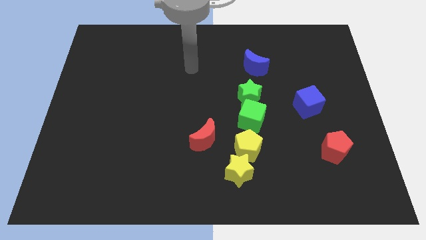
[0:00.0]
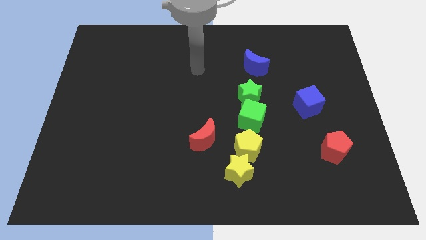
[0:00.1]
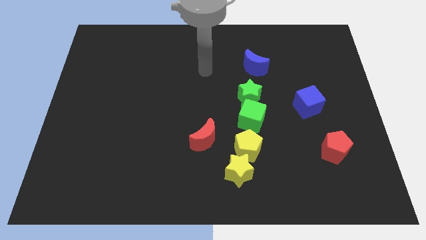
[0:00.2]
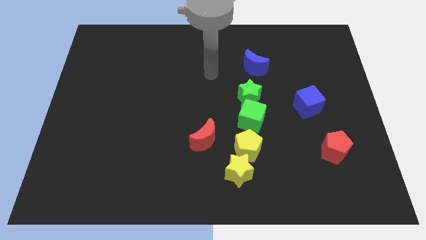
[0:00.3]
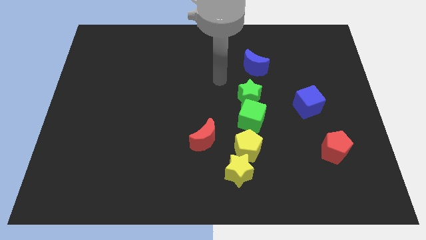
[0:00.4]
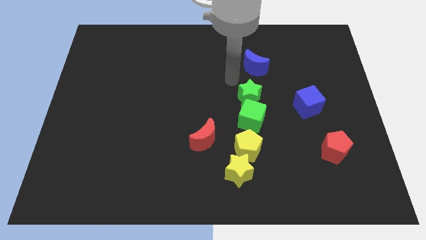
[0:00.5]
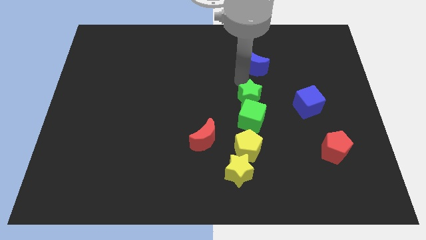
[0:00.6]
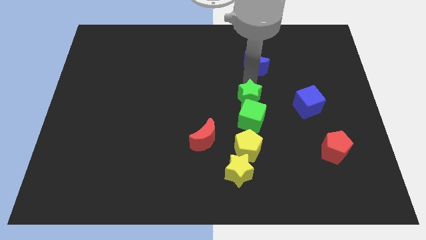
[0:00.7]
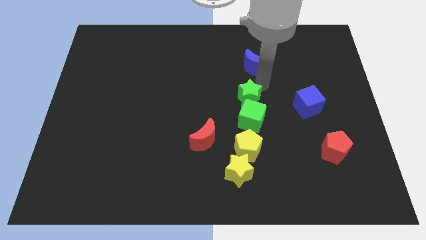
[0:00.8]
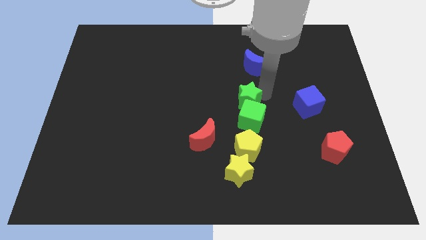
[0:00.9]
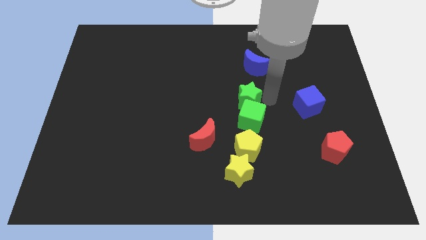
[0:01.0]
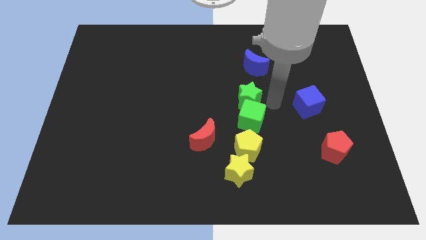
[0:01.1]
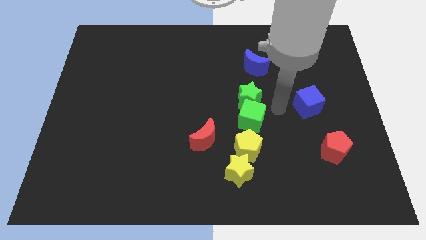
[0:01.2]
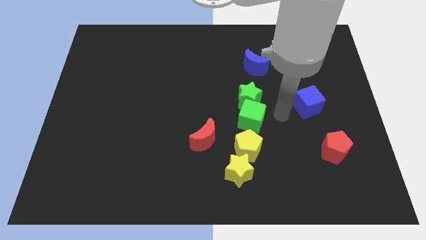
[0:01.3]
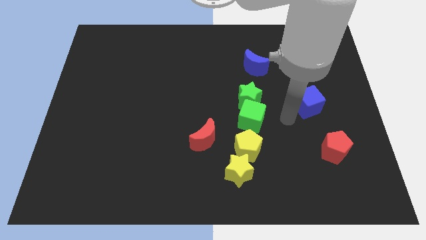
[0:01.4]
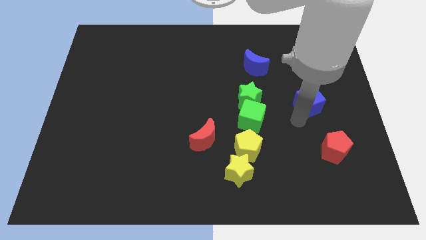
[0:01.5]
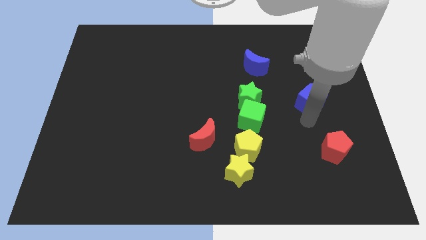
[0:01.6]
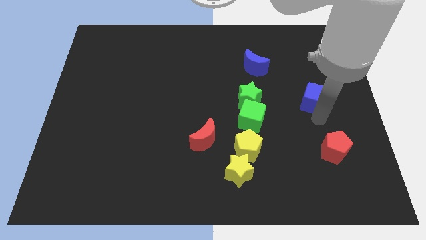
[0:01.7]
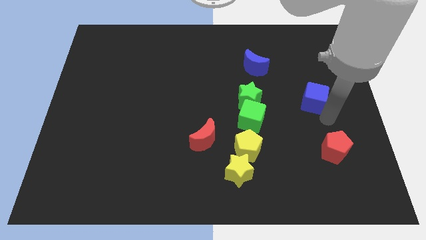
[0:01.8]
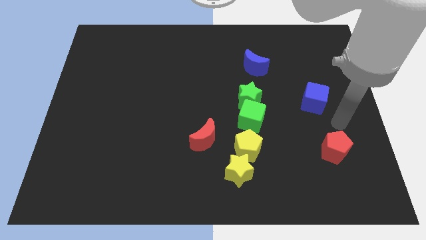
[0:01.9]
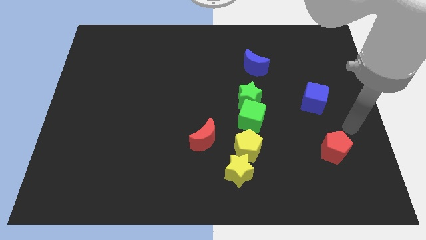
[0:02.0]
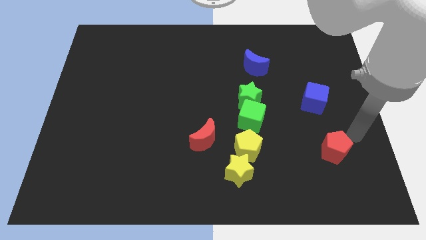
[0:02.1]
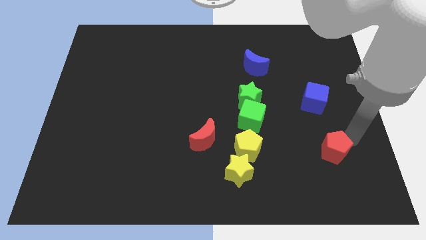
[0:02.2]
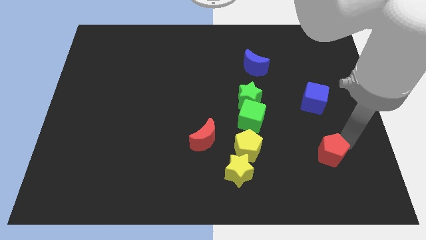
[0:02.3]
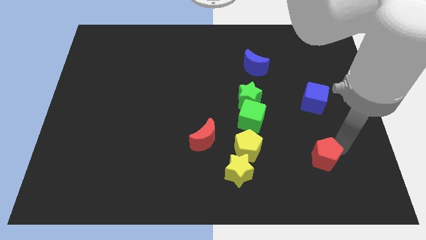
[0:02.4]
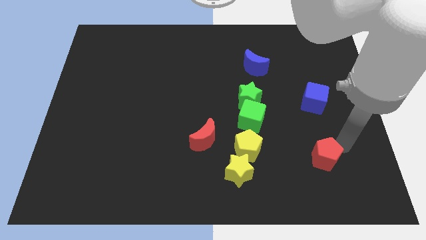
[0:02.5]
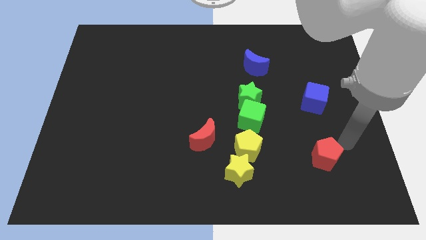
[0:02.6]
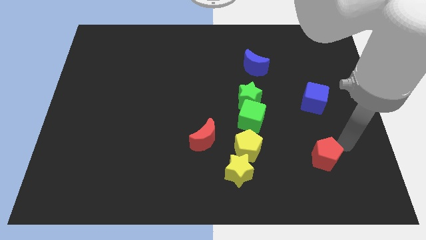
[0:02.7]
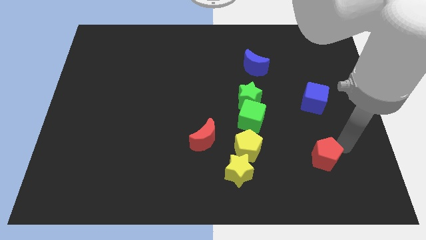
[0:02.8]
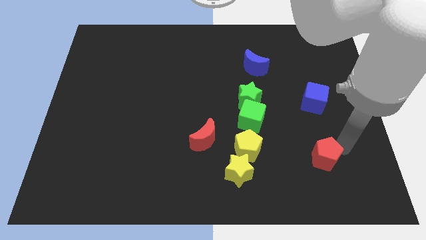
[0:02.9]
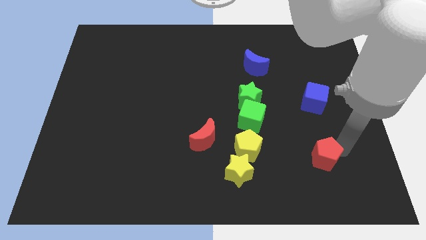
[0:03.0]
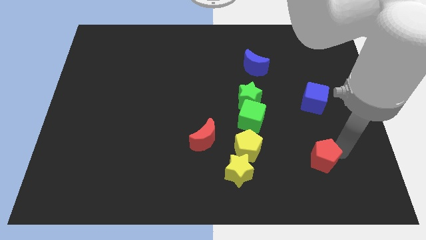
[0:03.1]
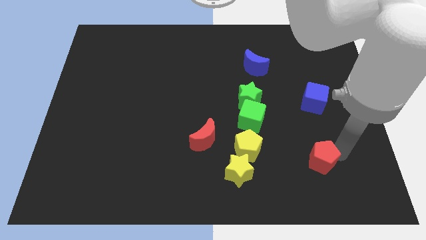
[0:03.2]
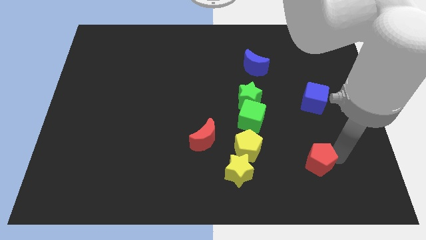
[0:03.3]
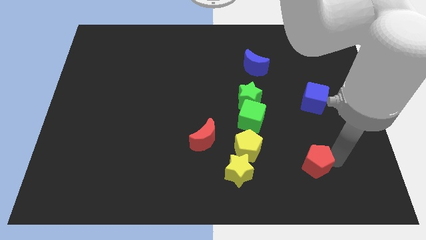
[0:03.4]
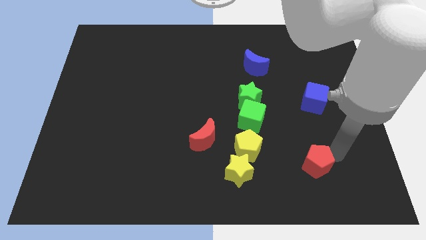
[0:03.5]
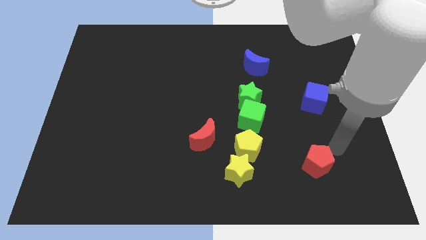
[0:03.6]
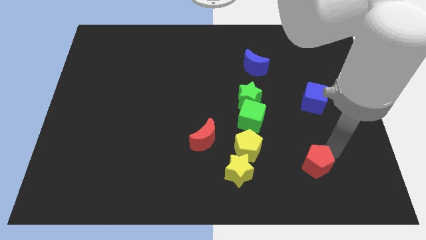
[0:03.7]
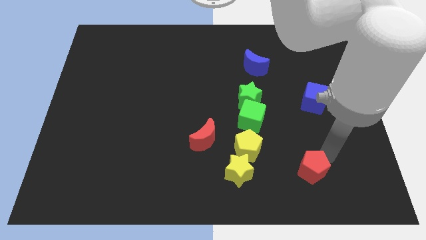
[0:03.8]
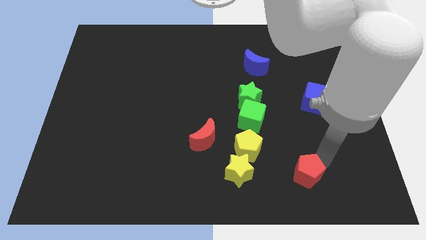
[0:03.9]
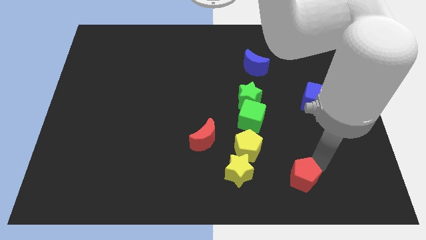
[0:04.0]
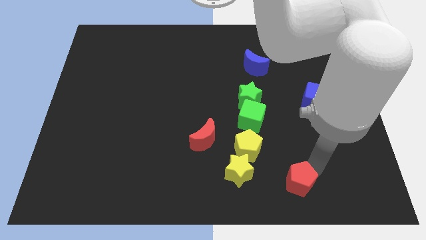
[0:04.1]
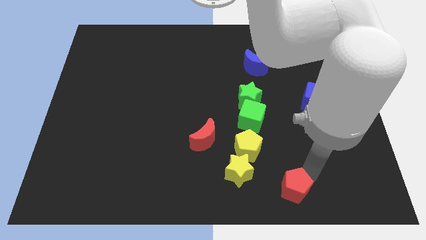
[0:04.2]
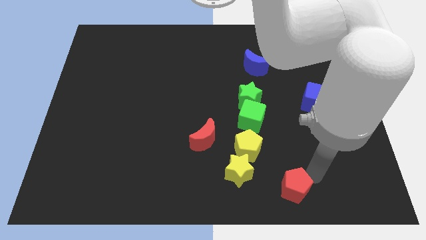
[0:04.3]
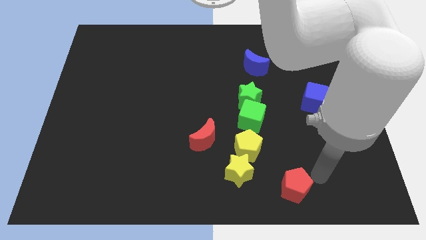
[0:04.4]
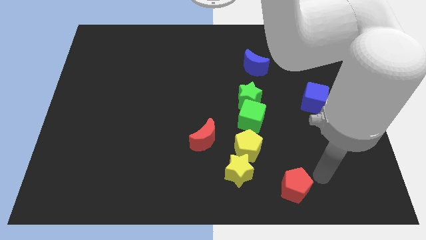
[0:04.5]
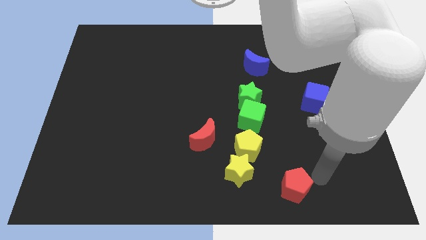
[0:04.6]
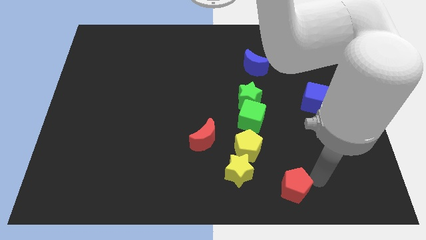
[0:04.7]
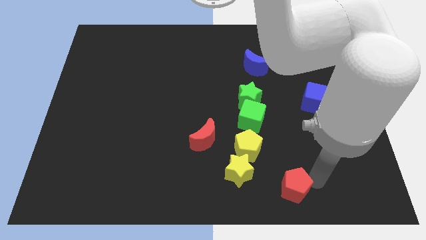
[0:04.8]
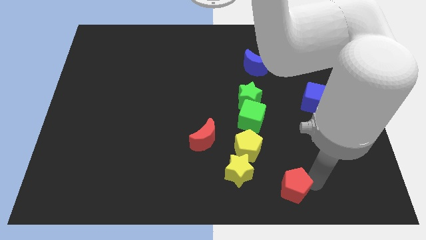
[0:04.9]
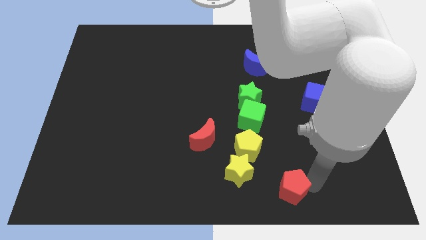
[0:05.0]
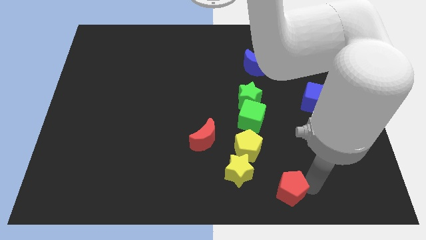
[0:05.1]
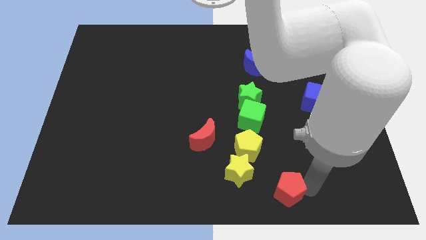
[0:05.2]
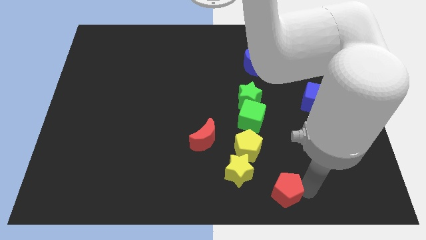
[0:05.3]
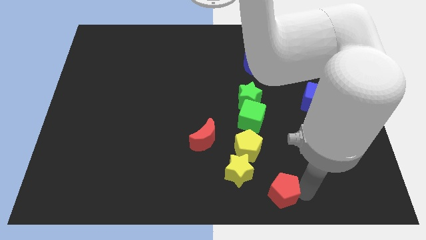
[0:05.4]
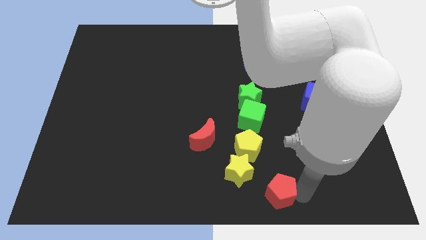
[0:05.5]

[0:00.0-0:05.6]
move the red pentagon to the bottom

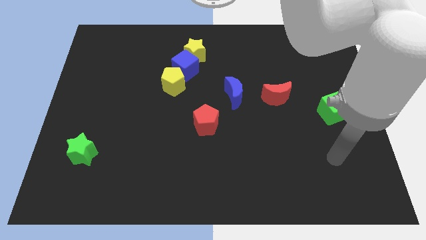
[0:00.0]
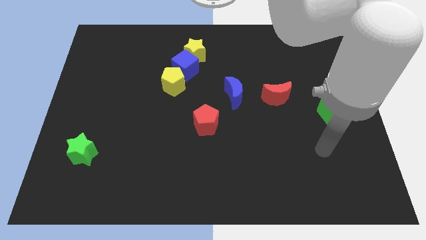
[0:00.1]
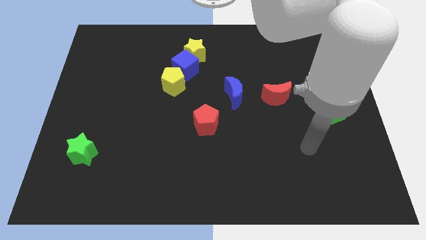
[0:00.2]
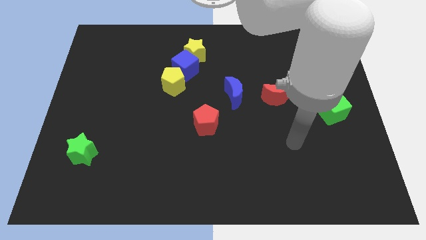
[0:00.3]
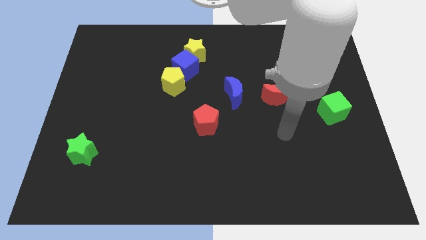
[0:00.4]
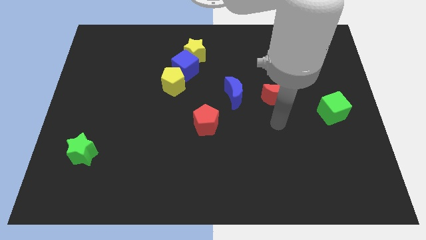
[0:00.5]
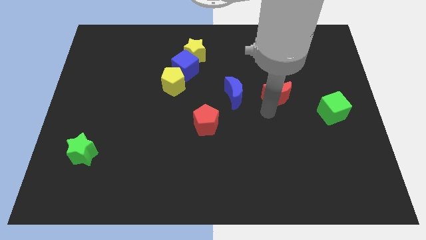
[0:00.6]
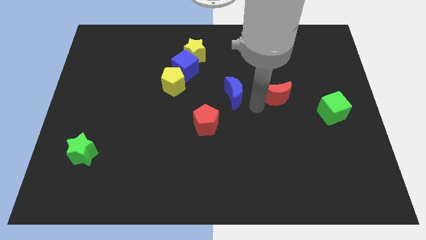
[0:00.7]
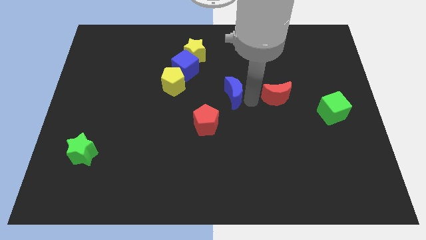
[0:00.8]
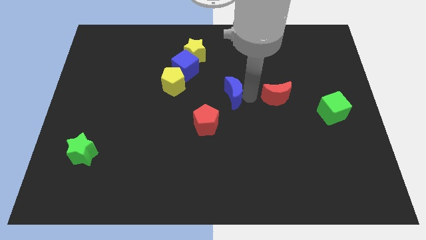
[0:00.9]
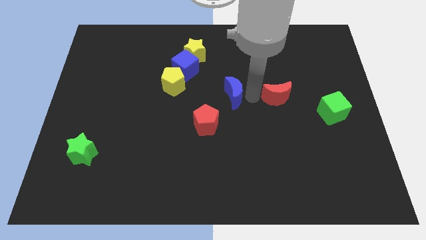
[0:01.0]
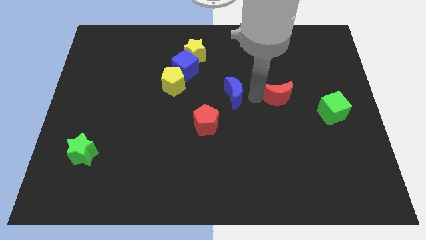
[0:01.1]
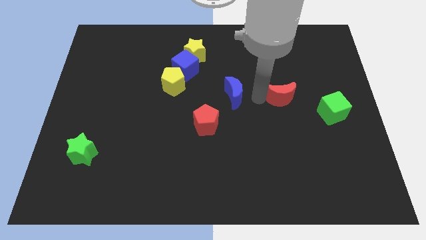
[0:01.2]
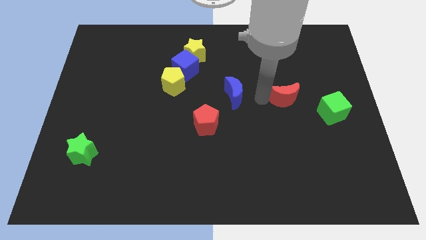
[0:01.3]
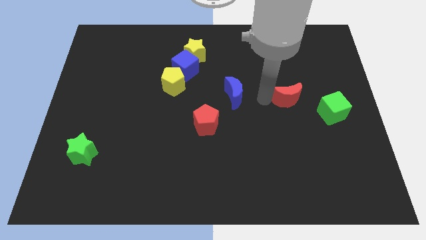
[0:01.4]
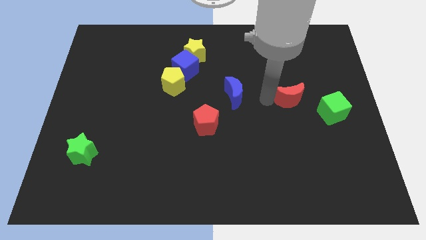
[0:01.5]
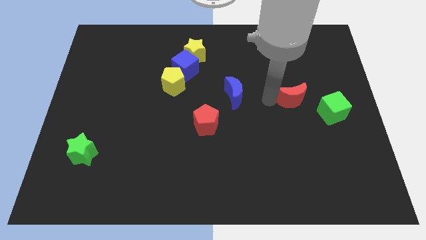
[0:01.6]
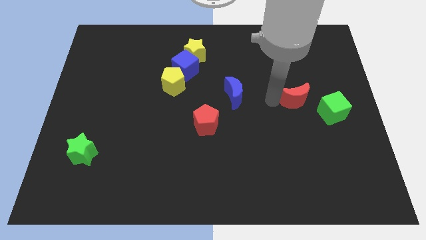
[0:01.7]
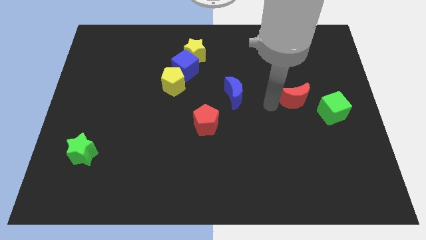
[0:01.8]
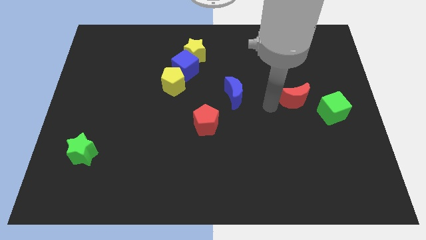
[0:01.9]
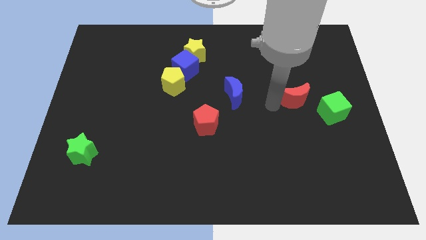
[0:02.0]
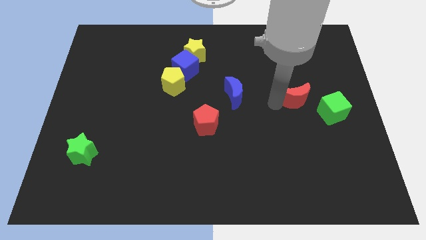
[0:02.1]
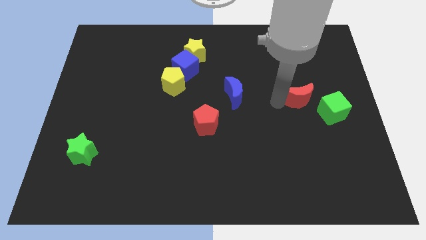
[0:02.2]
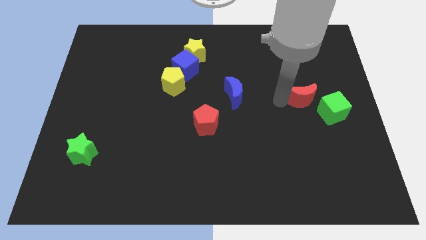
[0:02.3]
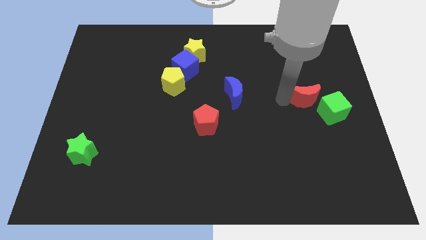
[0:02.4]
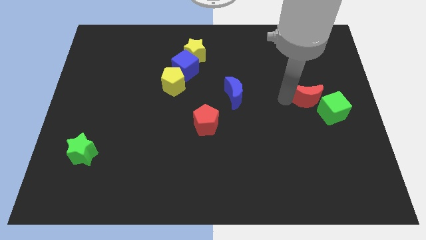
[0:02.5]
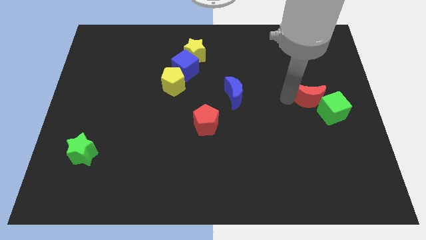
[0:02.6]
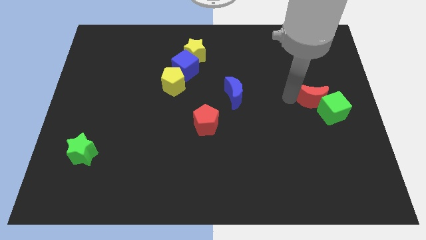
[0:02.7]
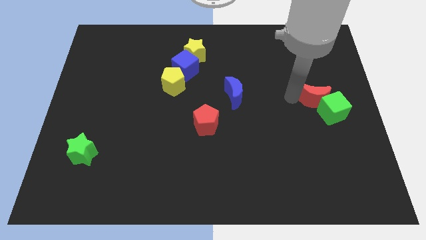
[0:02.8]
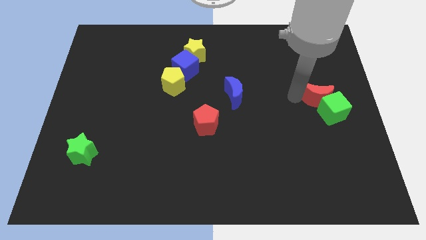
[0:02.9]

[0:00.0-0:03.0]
move the red moon to the right side
